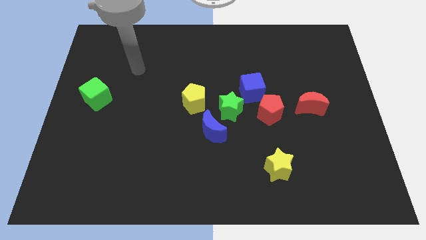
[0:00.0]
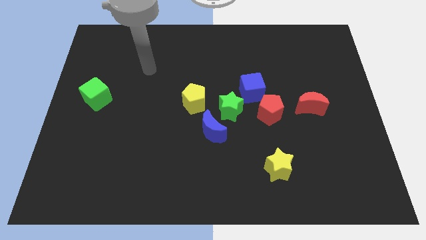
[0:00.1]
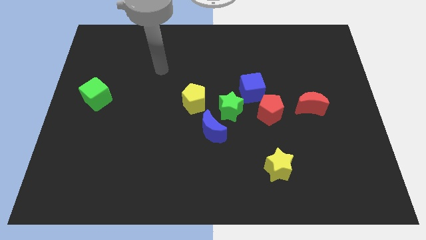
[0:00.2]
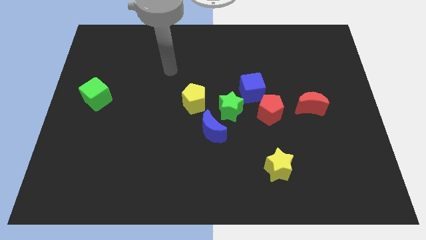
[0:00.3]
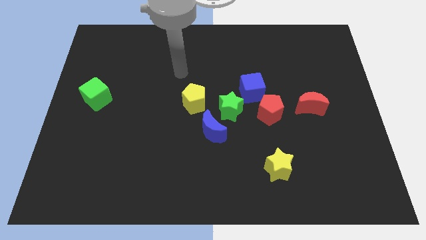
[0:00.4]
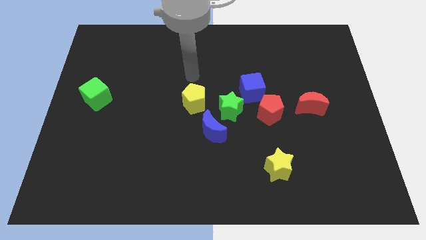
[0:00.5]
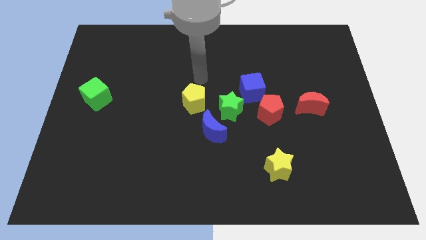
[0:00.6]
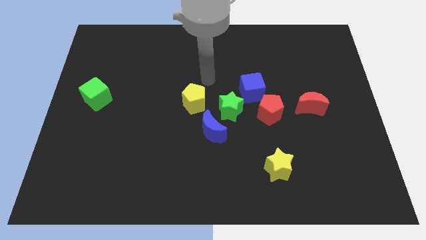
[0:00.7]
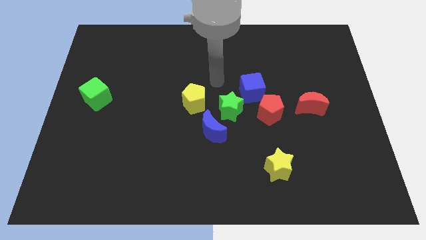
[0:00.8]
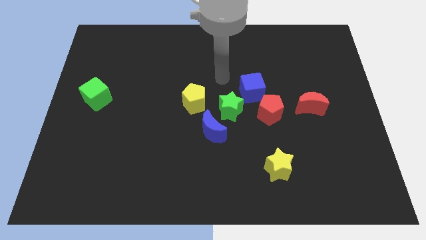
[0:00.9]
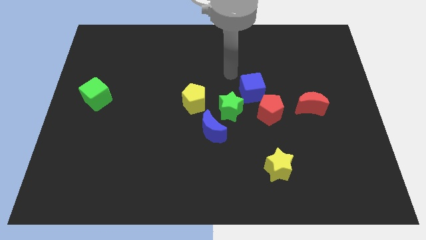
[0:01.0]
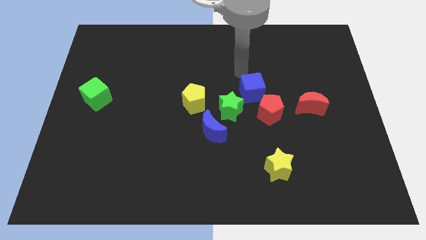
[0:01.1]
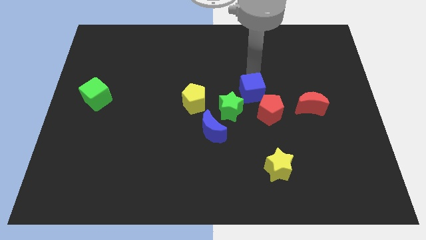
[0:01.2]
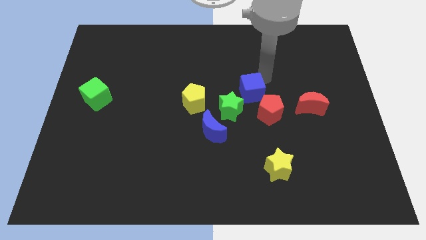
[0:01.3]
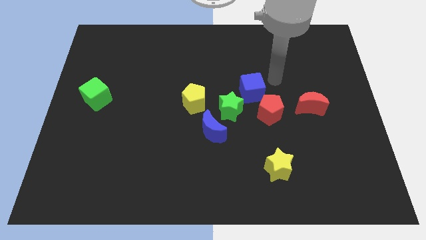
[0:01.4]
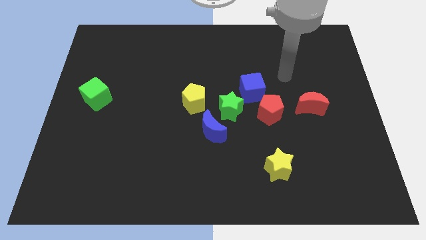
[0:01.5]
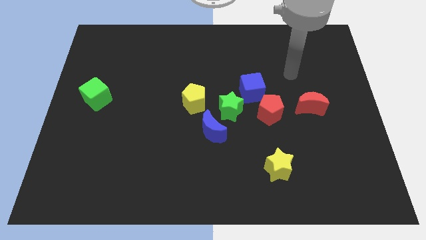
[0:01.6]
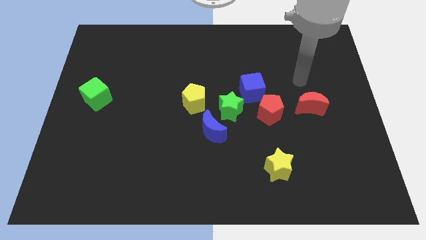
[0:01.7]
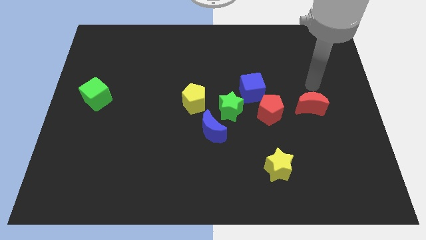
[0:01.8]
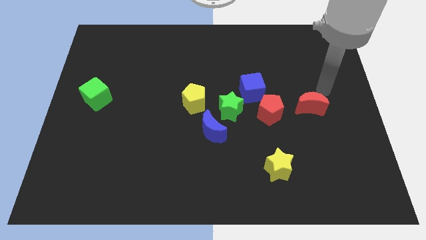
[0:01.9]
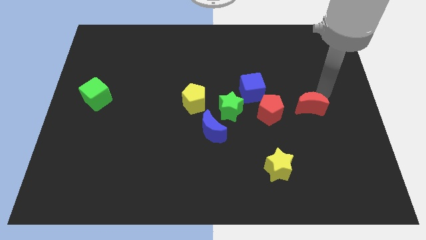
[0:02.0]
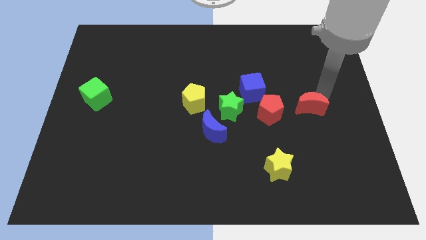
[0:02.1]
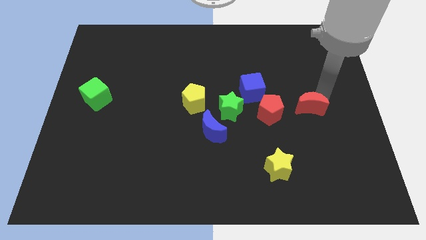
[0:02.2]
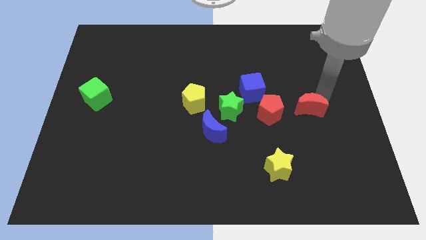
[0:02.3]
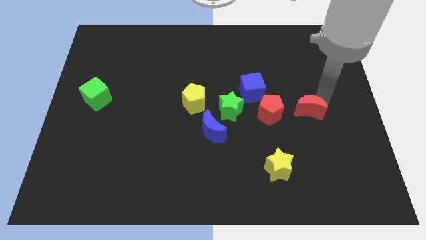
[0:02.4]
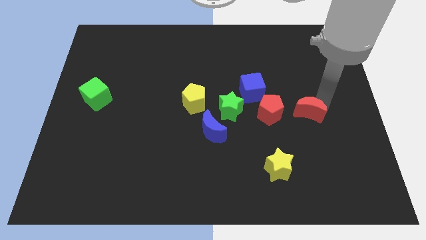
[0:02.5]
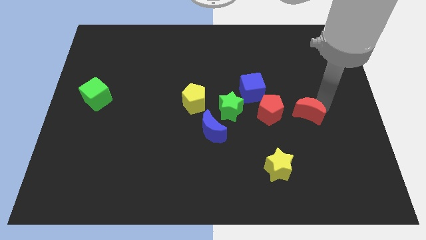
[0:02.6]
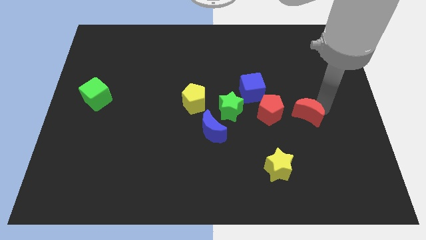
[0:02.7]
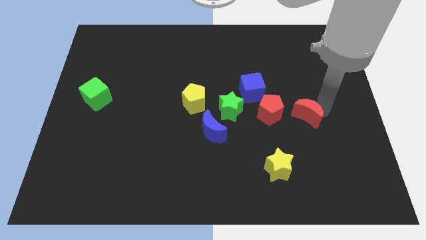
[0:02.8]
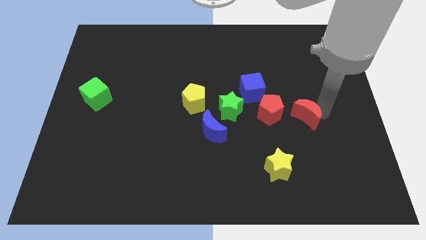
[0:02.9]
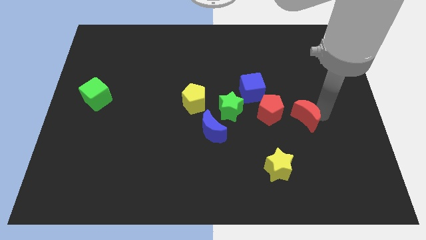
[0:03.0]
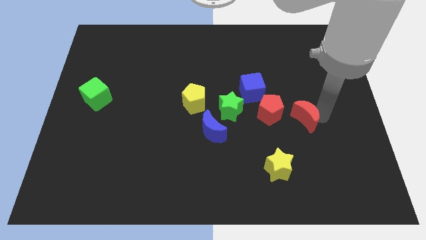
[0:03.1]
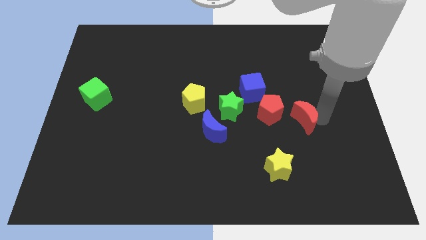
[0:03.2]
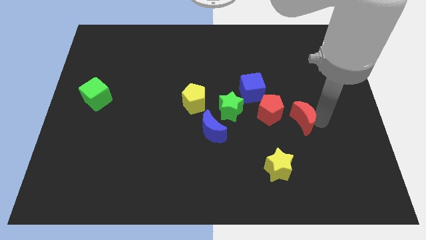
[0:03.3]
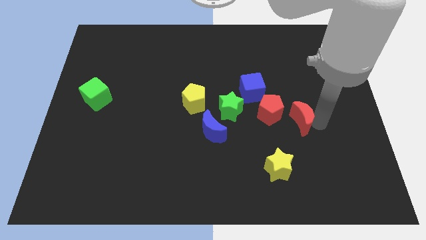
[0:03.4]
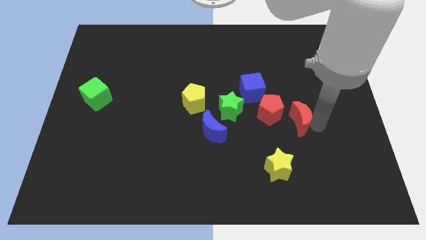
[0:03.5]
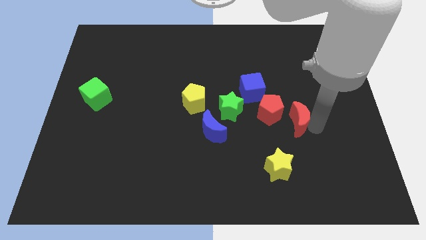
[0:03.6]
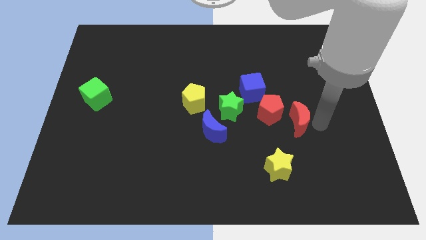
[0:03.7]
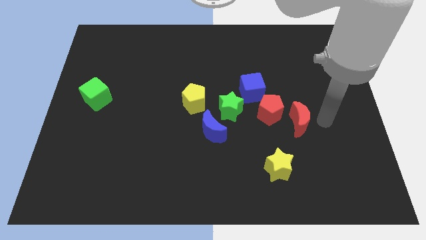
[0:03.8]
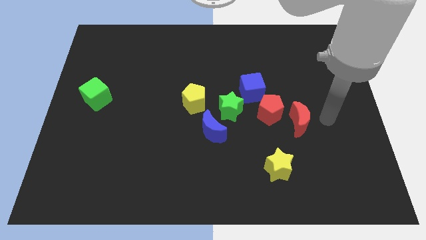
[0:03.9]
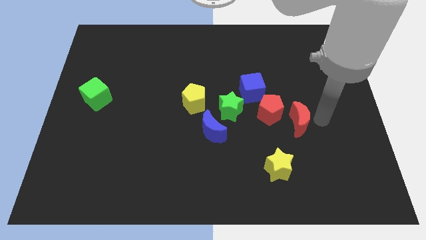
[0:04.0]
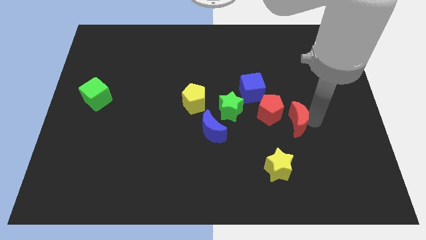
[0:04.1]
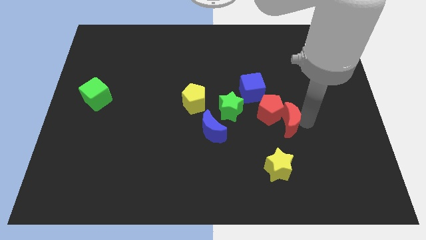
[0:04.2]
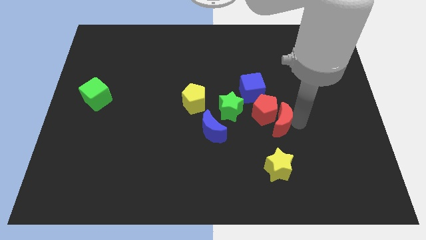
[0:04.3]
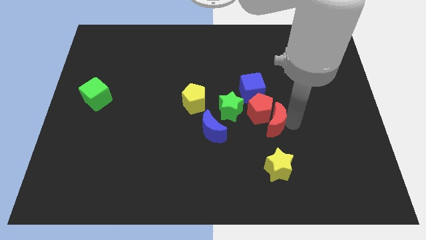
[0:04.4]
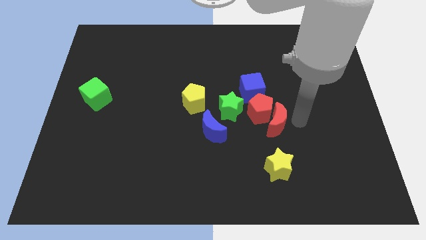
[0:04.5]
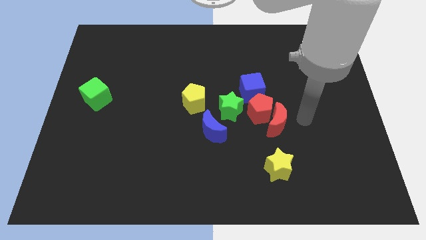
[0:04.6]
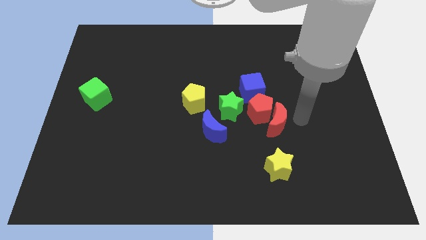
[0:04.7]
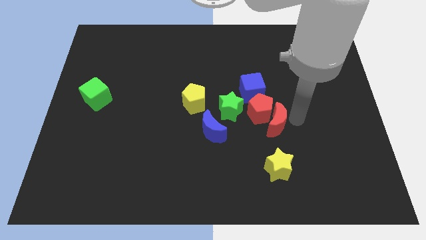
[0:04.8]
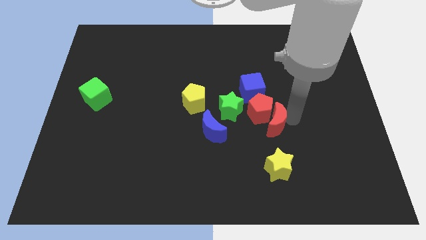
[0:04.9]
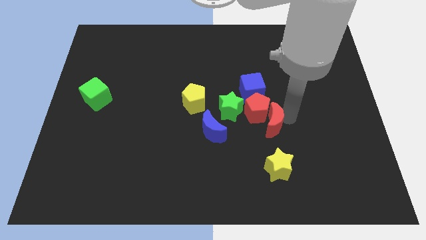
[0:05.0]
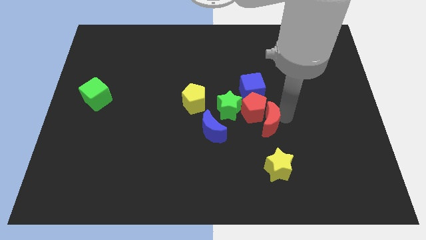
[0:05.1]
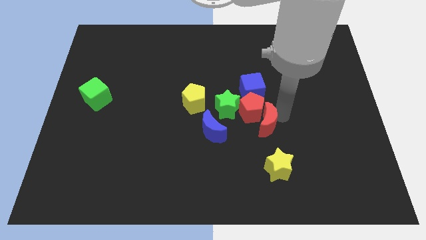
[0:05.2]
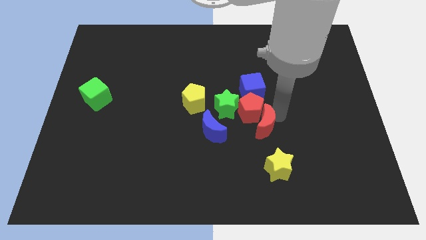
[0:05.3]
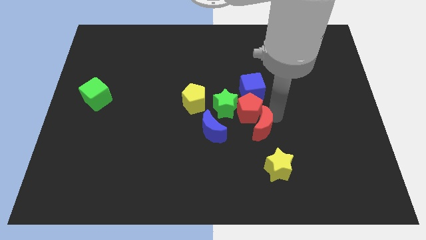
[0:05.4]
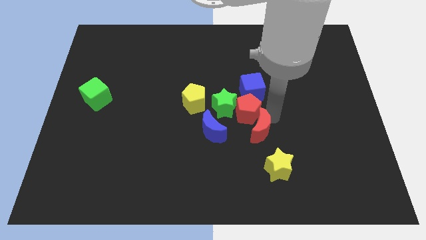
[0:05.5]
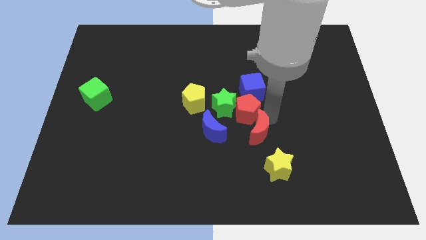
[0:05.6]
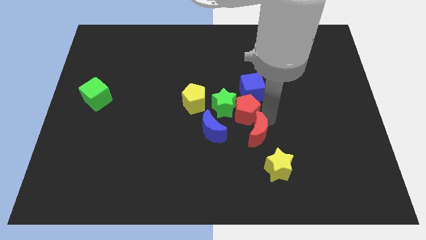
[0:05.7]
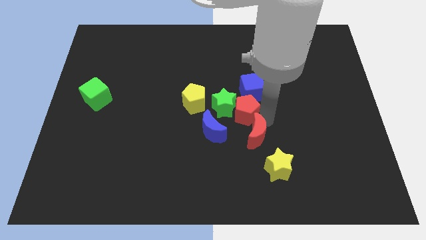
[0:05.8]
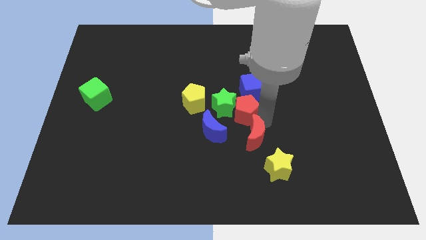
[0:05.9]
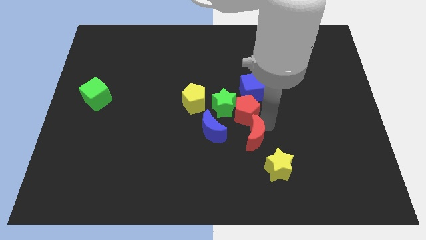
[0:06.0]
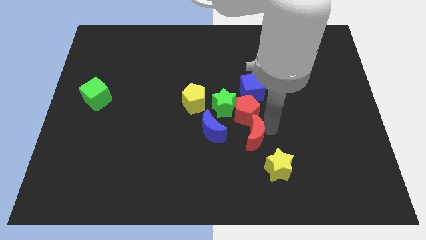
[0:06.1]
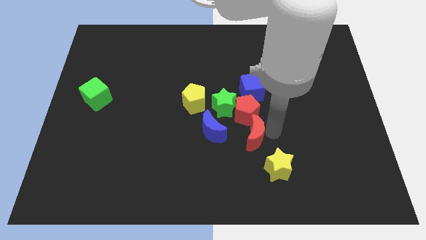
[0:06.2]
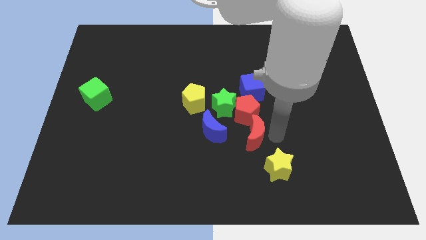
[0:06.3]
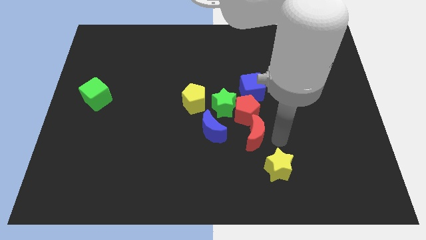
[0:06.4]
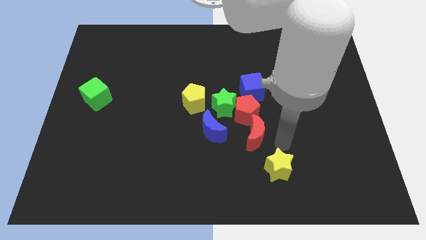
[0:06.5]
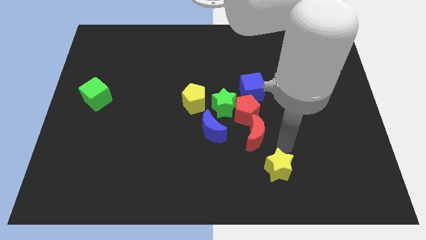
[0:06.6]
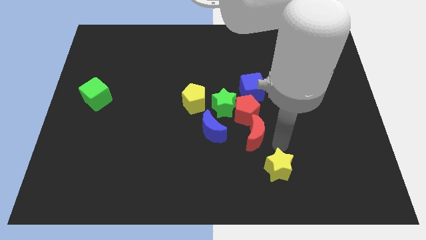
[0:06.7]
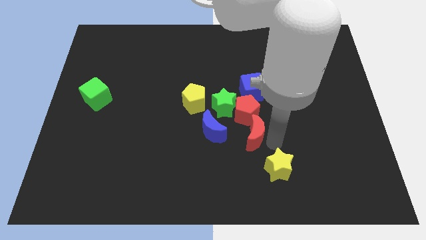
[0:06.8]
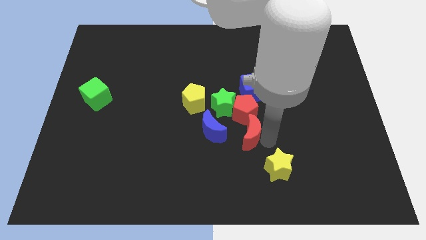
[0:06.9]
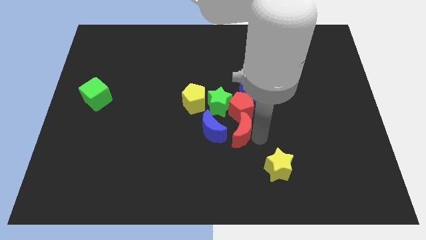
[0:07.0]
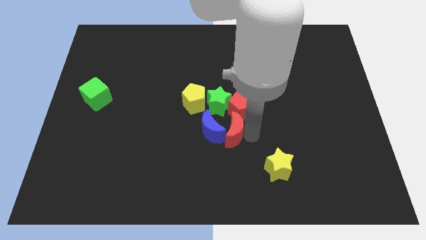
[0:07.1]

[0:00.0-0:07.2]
slide the red moon to the blue moon

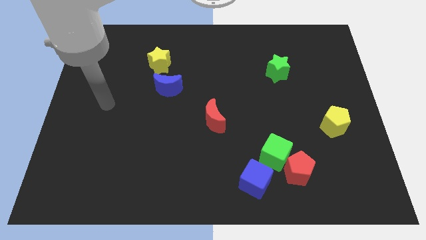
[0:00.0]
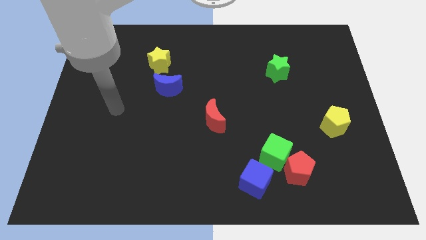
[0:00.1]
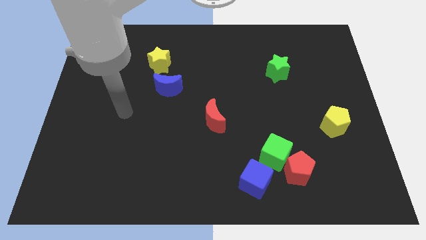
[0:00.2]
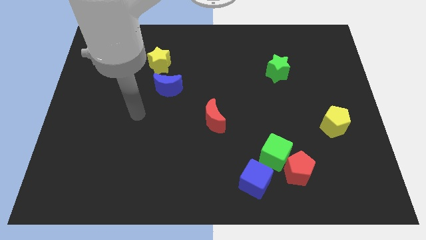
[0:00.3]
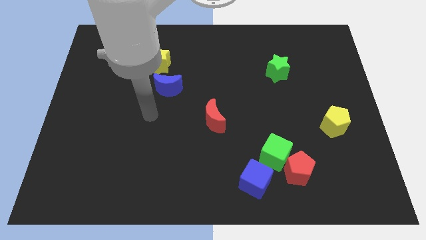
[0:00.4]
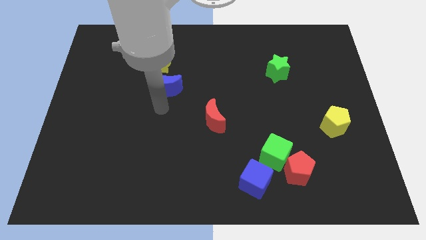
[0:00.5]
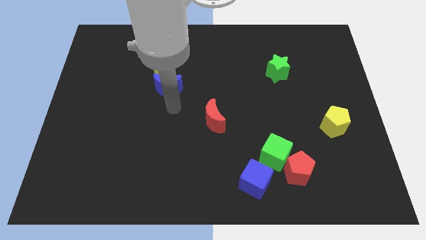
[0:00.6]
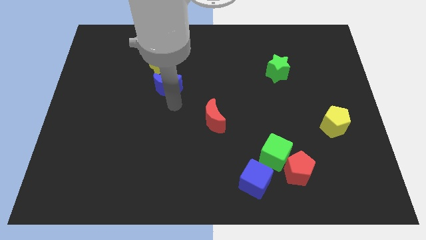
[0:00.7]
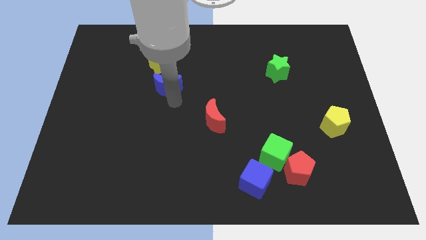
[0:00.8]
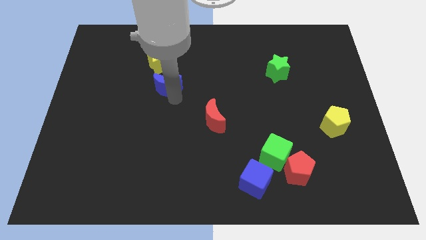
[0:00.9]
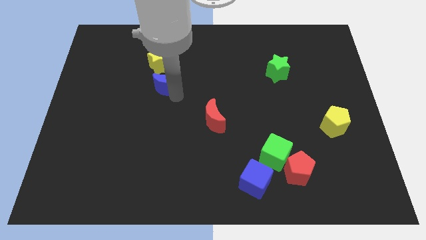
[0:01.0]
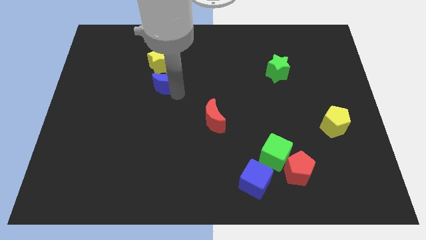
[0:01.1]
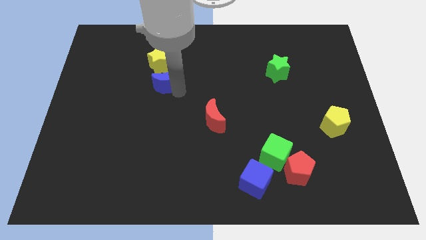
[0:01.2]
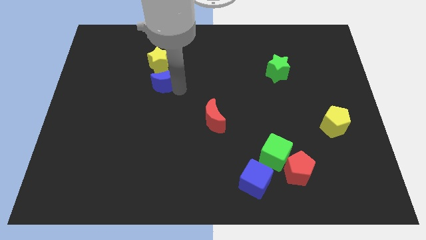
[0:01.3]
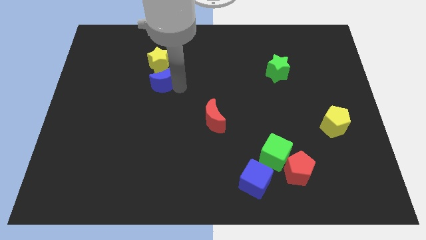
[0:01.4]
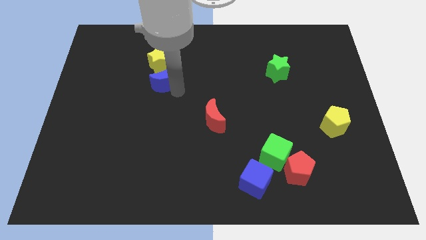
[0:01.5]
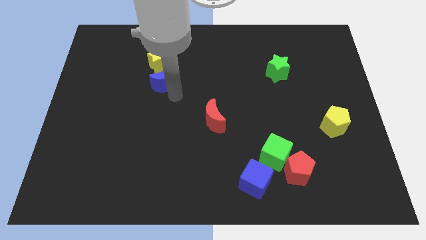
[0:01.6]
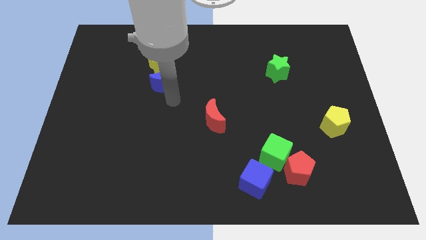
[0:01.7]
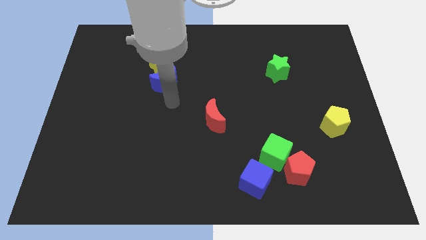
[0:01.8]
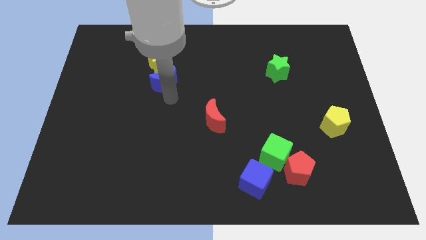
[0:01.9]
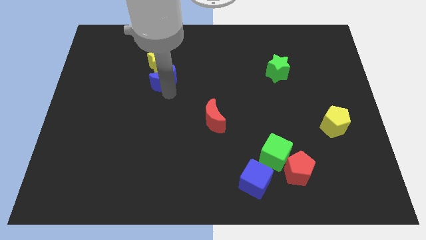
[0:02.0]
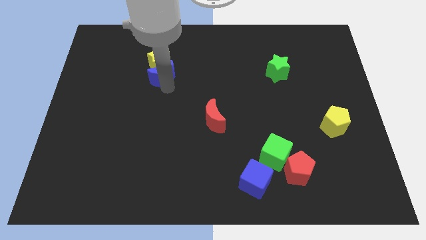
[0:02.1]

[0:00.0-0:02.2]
slide the blue moon next to the yellow star
